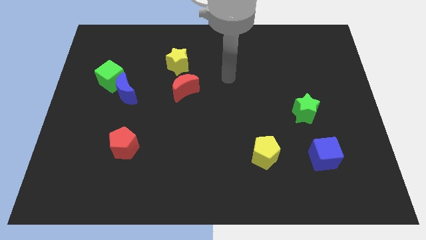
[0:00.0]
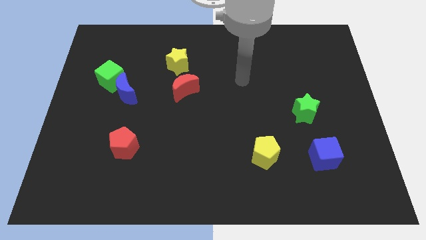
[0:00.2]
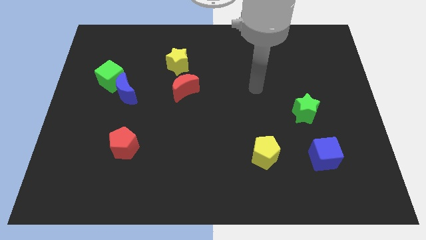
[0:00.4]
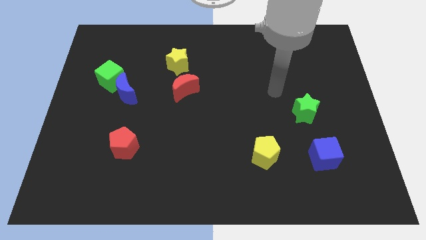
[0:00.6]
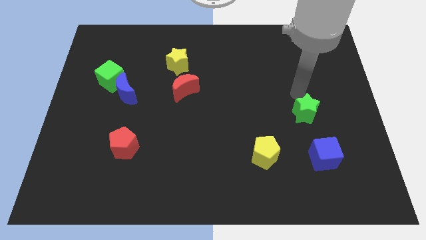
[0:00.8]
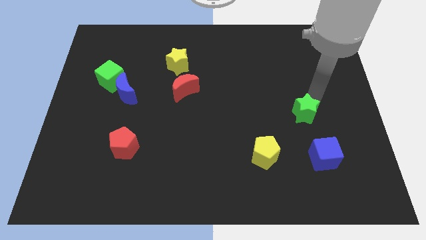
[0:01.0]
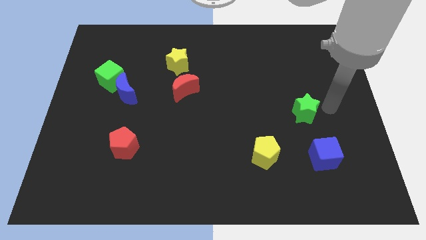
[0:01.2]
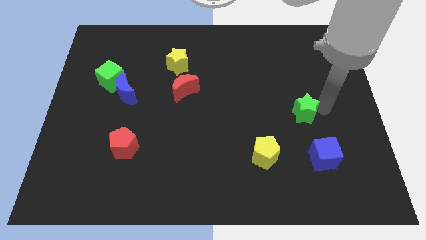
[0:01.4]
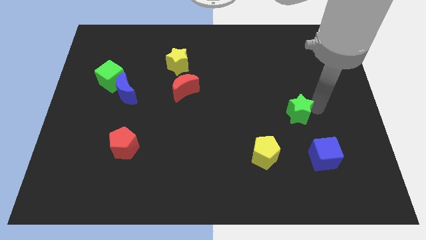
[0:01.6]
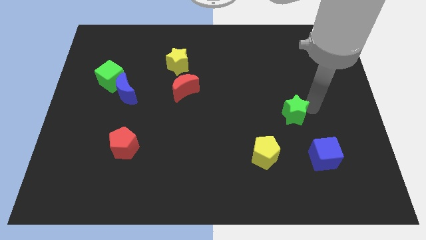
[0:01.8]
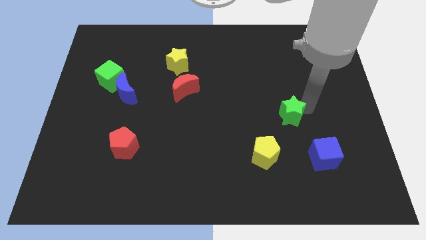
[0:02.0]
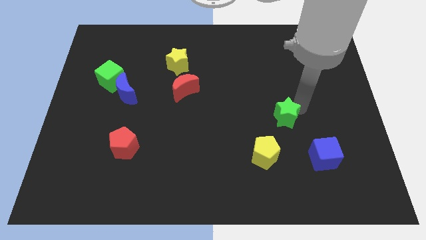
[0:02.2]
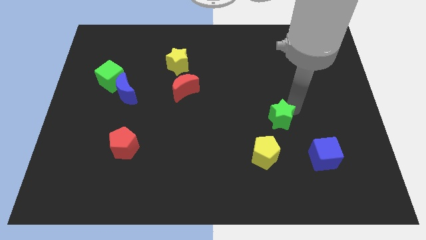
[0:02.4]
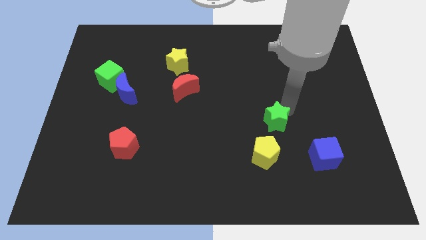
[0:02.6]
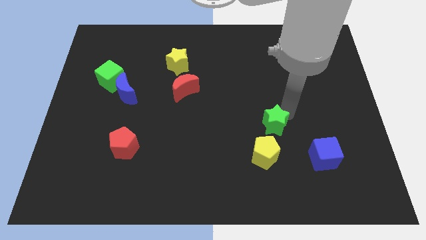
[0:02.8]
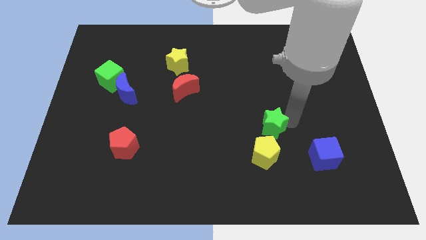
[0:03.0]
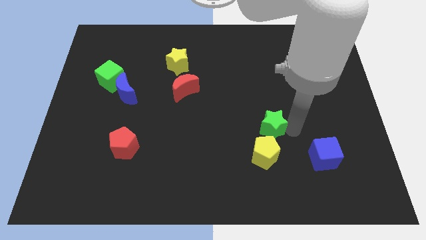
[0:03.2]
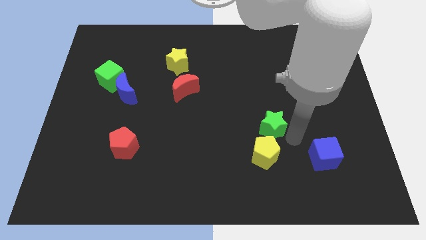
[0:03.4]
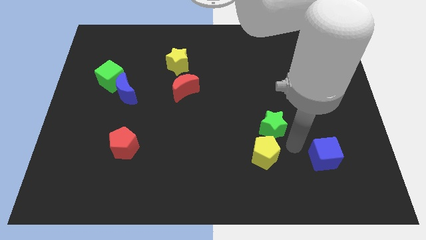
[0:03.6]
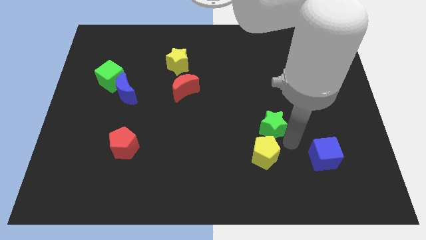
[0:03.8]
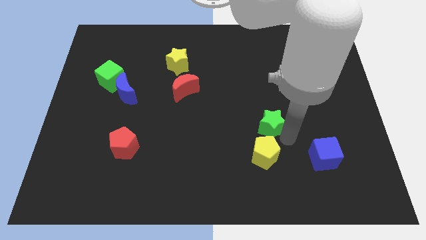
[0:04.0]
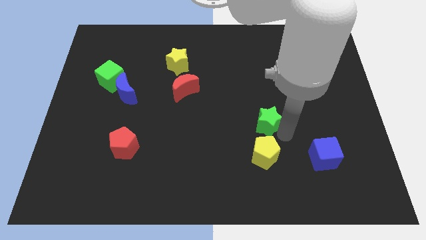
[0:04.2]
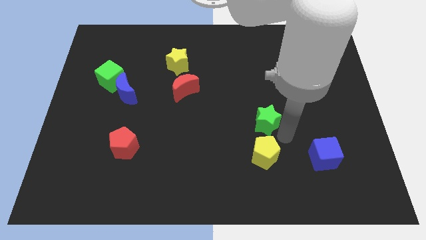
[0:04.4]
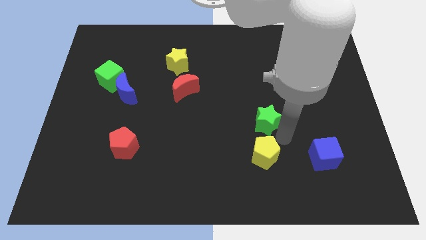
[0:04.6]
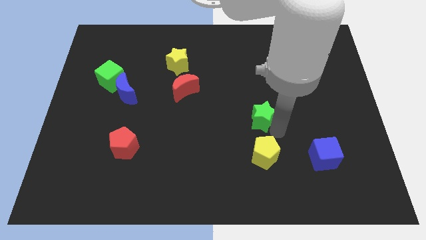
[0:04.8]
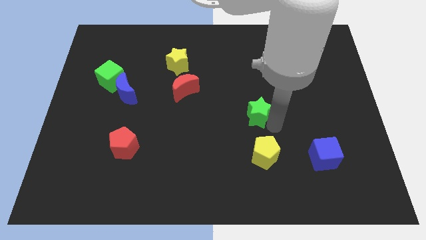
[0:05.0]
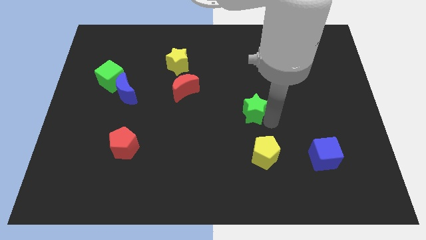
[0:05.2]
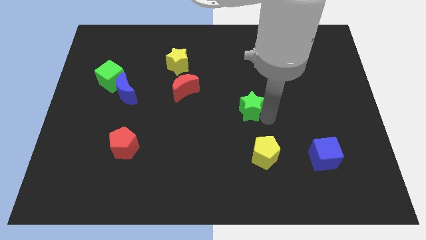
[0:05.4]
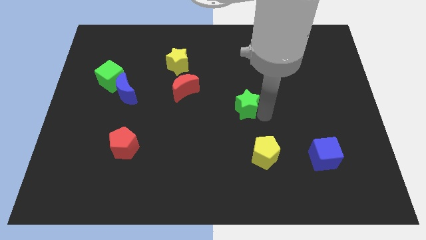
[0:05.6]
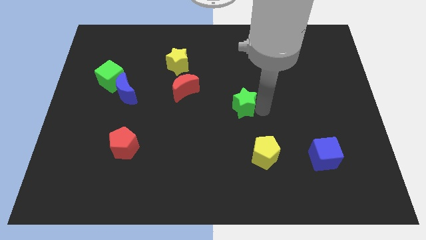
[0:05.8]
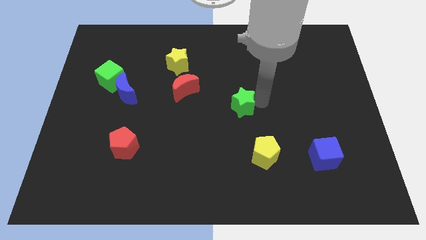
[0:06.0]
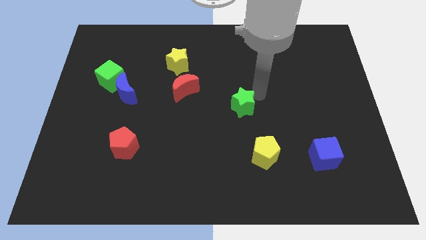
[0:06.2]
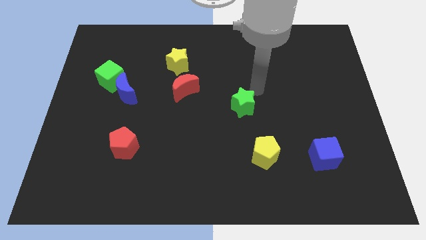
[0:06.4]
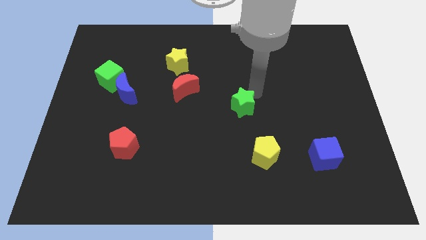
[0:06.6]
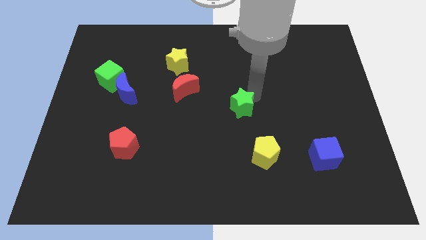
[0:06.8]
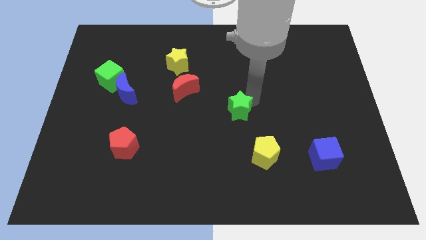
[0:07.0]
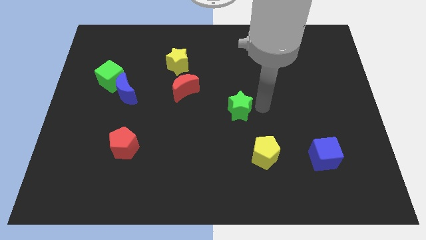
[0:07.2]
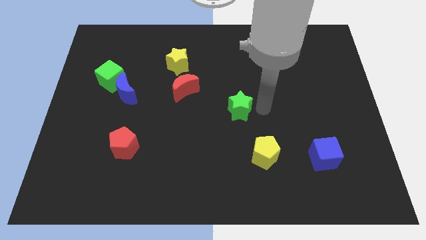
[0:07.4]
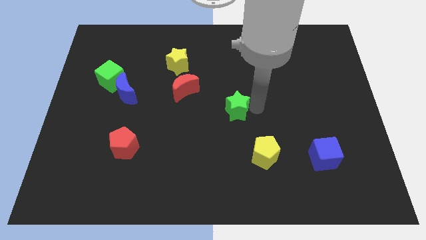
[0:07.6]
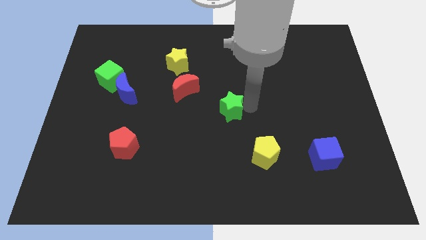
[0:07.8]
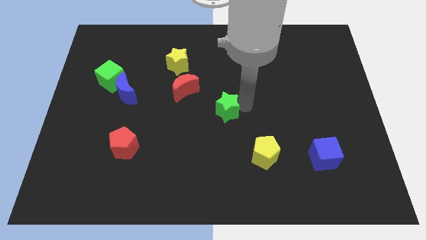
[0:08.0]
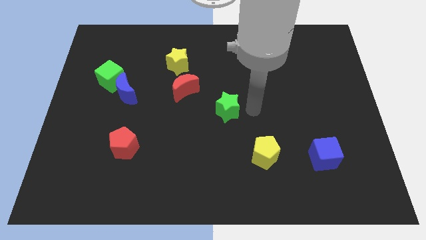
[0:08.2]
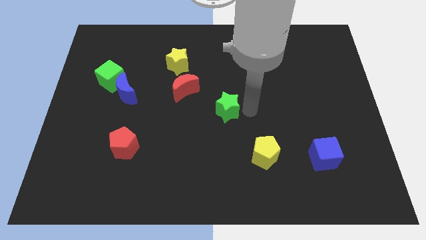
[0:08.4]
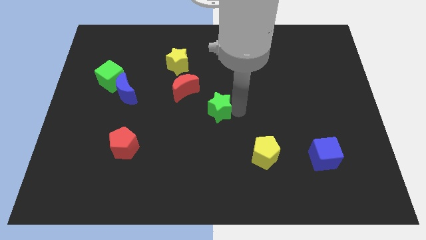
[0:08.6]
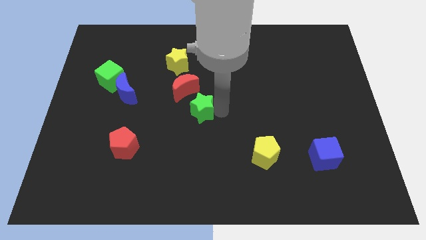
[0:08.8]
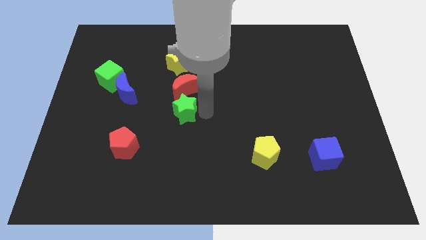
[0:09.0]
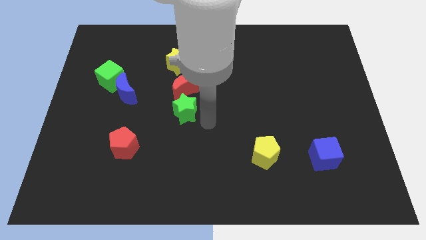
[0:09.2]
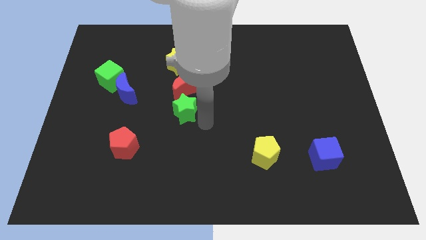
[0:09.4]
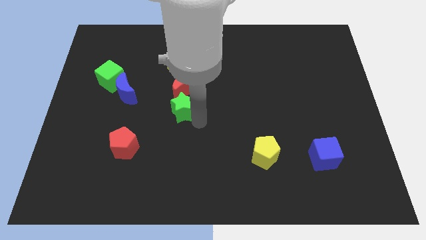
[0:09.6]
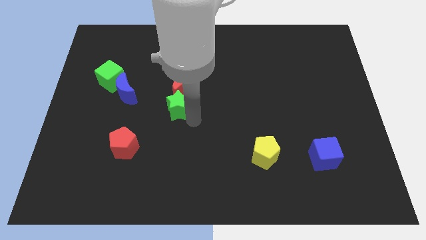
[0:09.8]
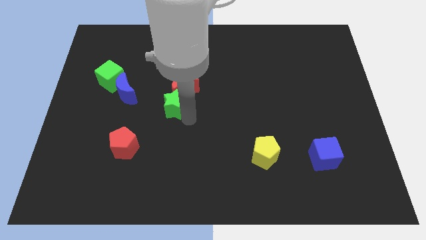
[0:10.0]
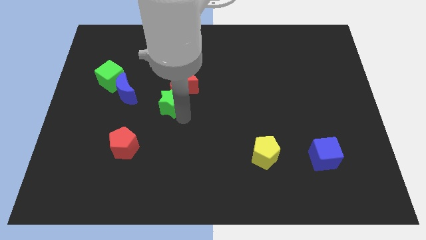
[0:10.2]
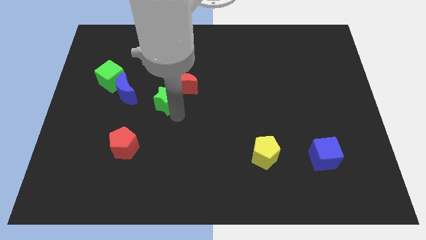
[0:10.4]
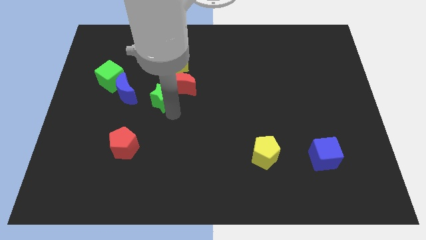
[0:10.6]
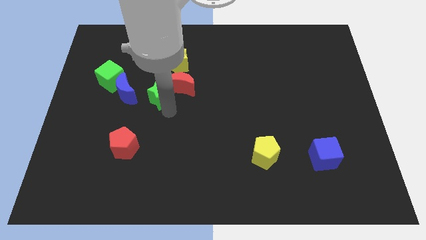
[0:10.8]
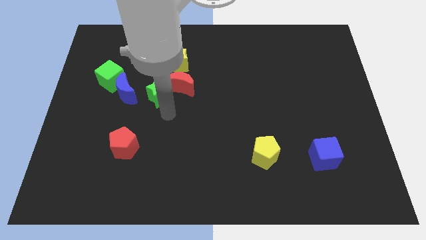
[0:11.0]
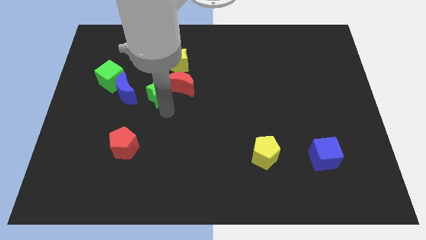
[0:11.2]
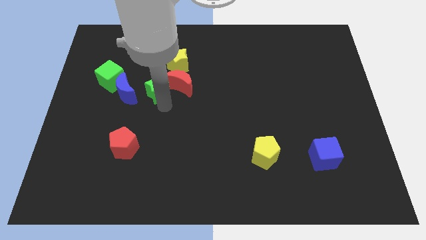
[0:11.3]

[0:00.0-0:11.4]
push the green star to the right side of the green cube

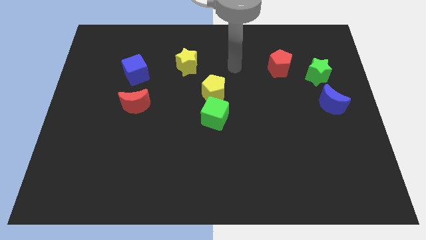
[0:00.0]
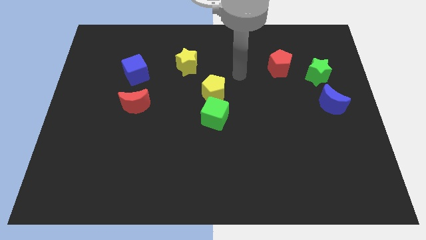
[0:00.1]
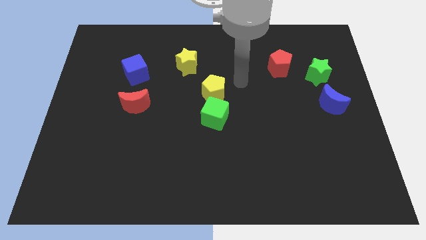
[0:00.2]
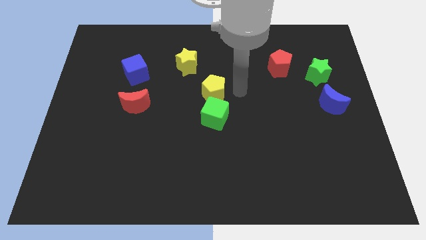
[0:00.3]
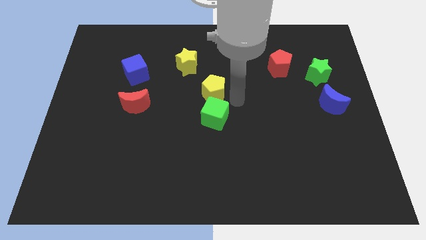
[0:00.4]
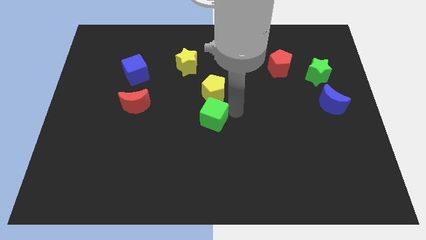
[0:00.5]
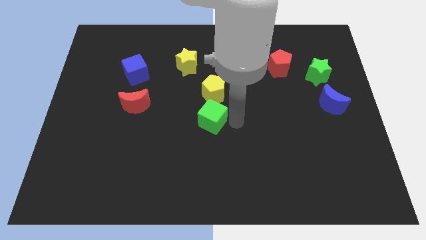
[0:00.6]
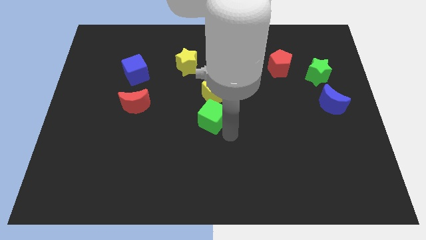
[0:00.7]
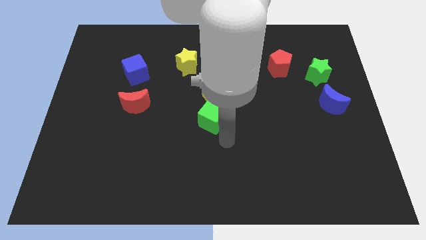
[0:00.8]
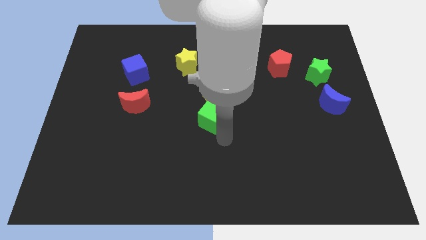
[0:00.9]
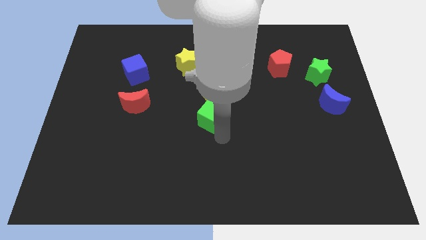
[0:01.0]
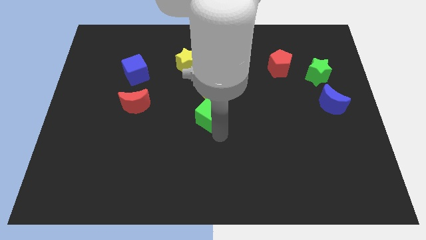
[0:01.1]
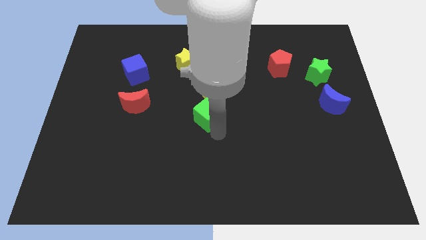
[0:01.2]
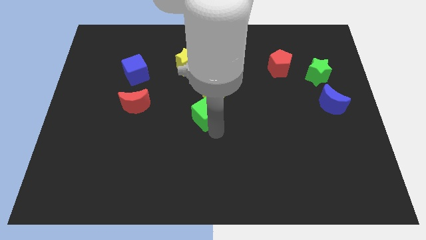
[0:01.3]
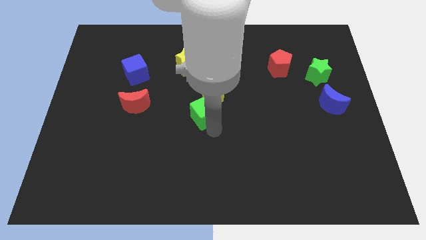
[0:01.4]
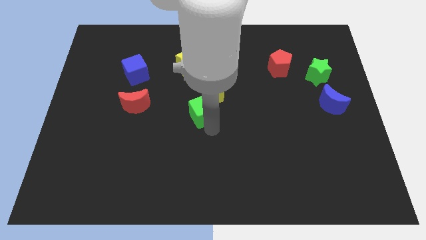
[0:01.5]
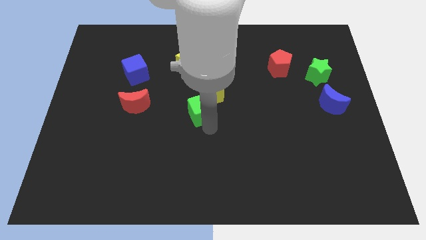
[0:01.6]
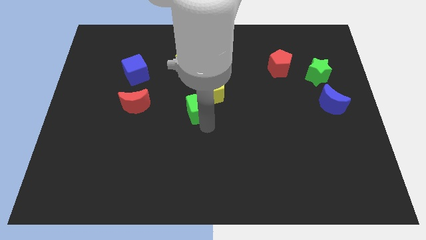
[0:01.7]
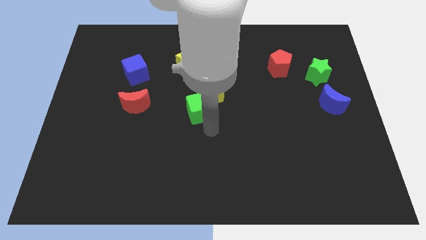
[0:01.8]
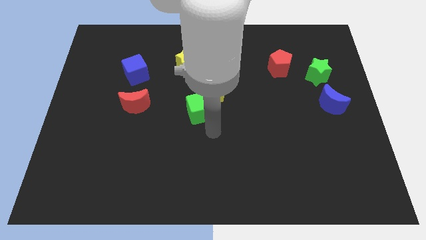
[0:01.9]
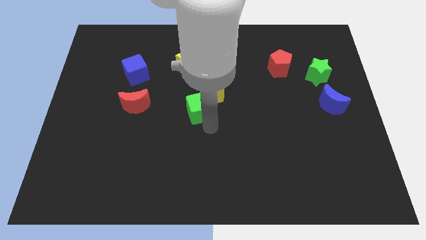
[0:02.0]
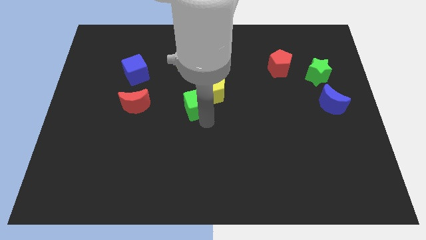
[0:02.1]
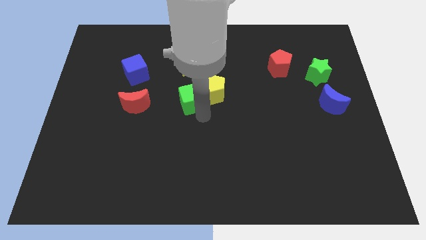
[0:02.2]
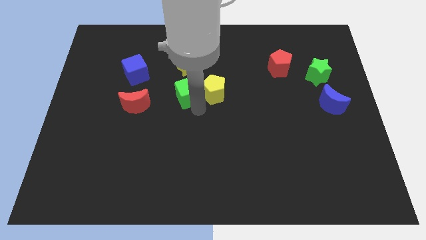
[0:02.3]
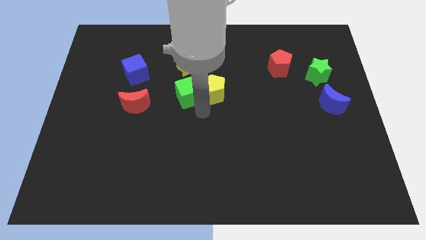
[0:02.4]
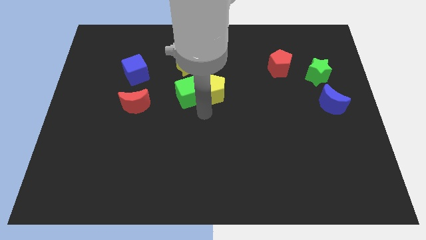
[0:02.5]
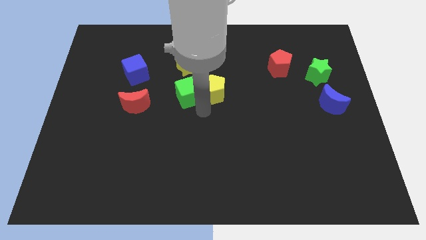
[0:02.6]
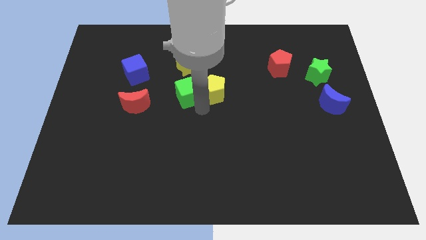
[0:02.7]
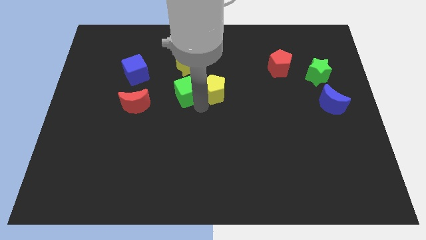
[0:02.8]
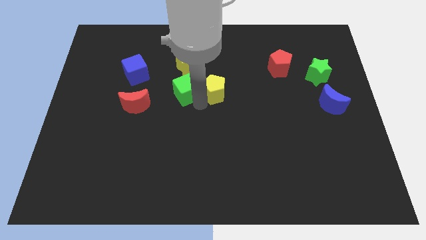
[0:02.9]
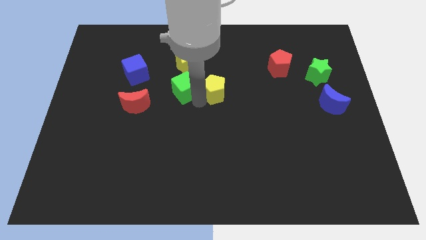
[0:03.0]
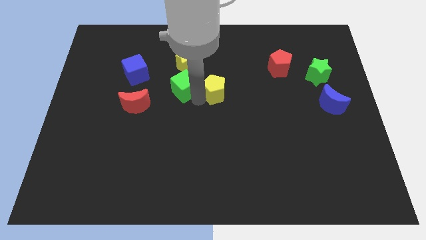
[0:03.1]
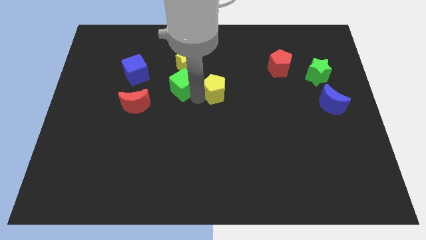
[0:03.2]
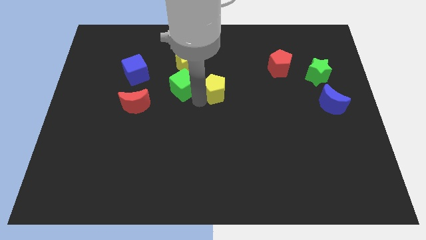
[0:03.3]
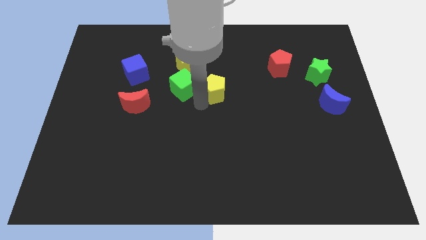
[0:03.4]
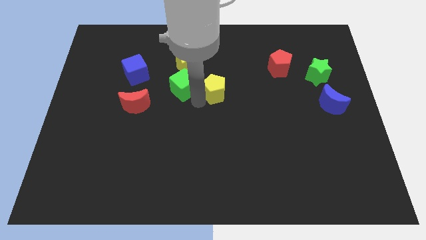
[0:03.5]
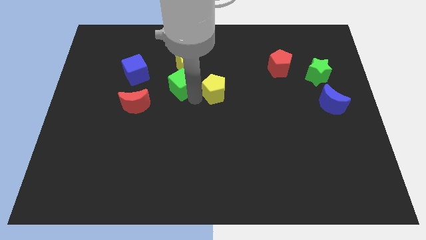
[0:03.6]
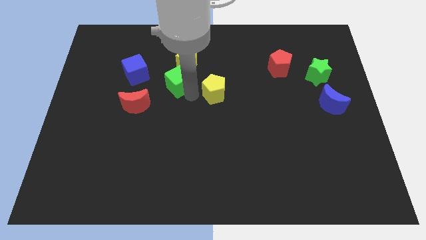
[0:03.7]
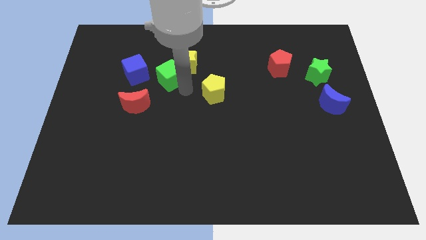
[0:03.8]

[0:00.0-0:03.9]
put the green cube just left of the yellow star
